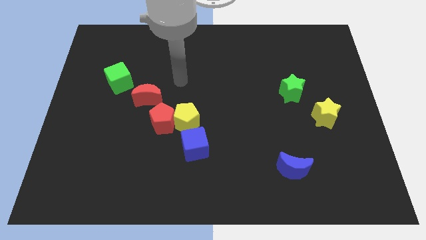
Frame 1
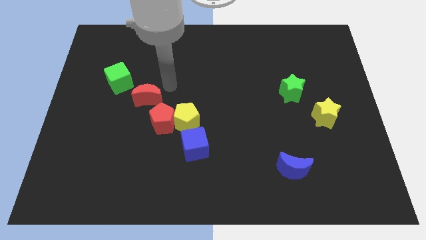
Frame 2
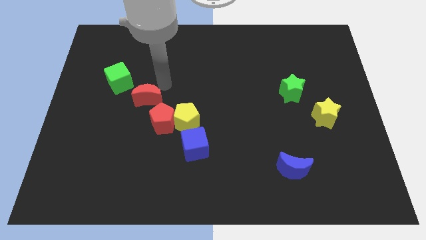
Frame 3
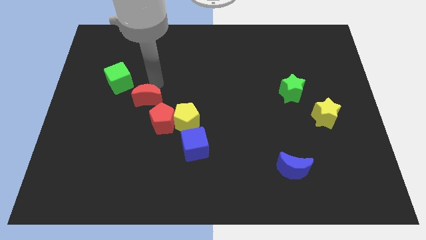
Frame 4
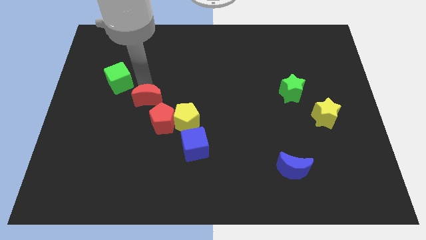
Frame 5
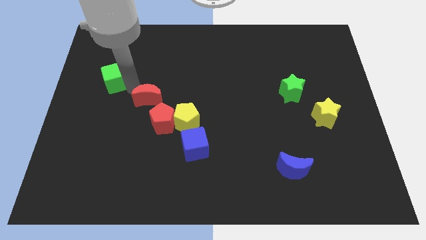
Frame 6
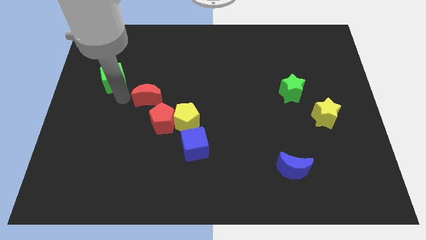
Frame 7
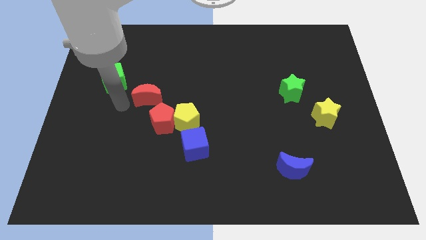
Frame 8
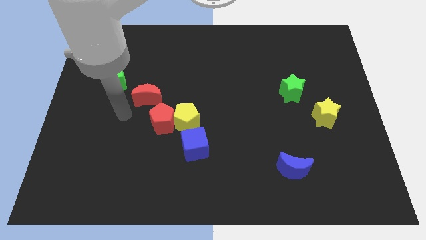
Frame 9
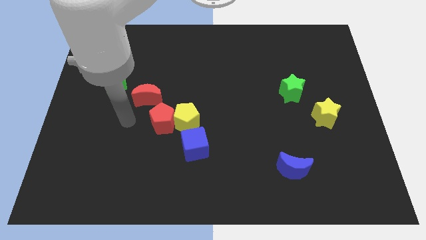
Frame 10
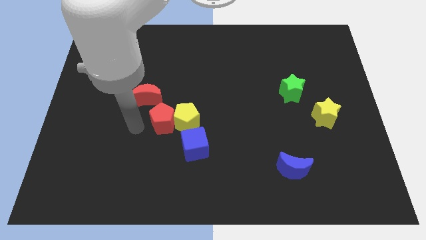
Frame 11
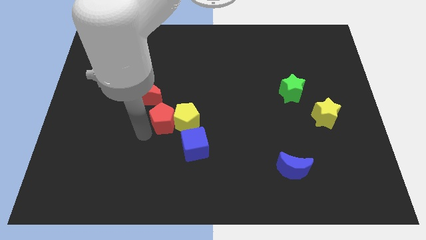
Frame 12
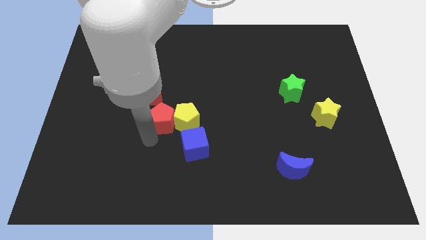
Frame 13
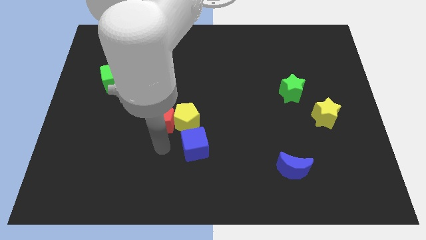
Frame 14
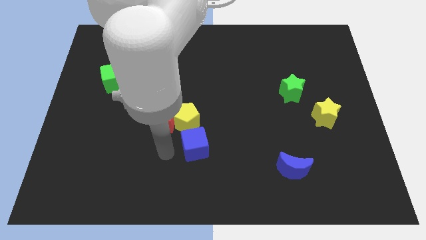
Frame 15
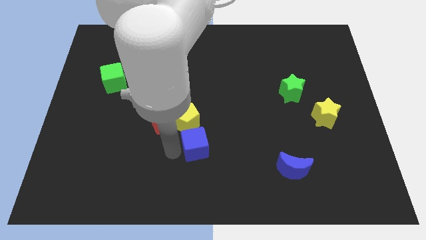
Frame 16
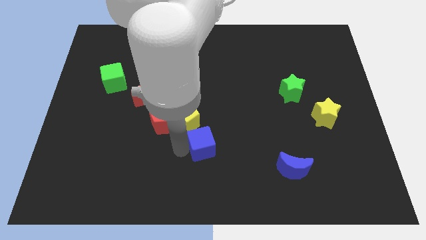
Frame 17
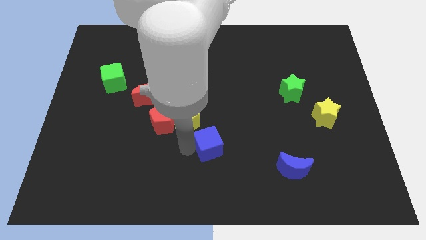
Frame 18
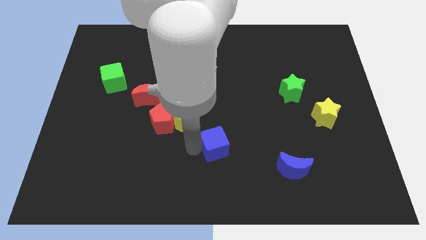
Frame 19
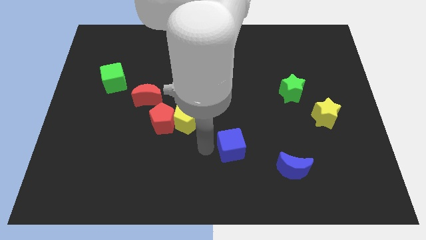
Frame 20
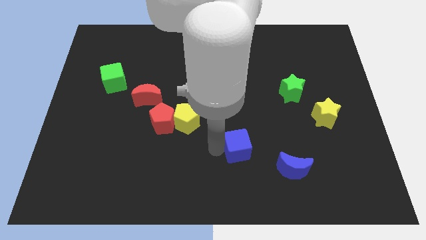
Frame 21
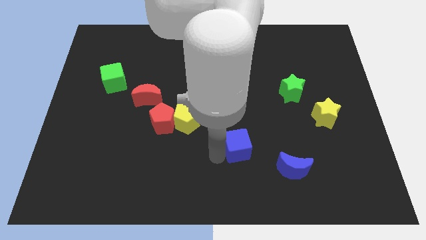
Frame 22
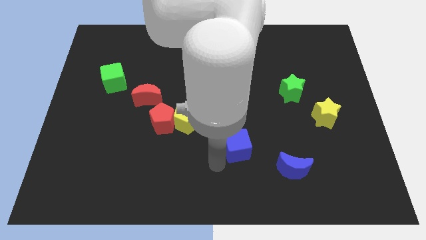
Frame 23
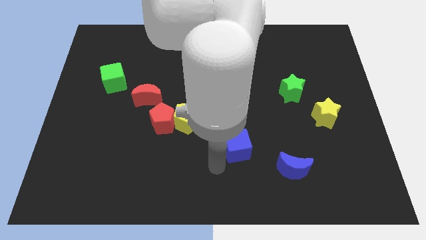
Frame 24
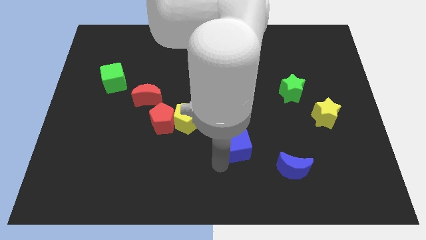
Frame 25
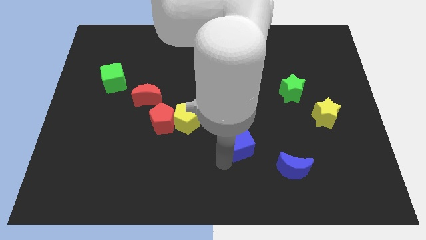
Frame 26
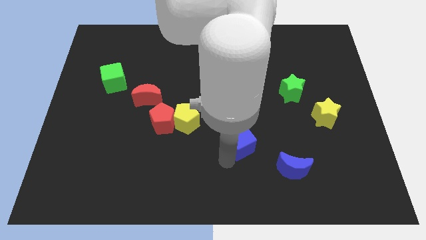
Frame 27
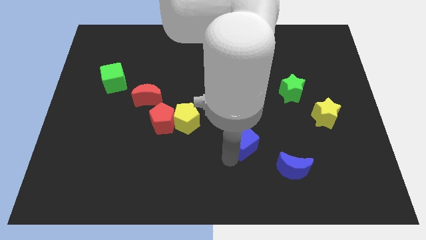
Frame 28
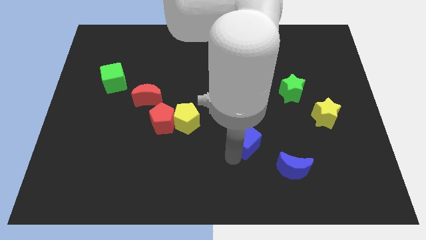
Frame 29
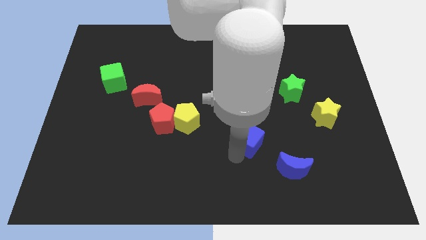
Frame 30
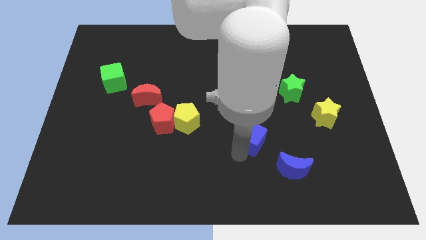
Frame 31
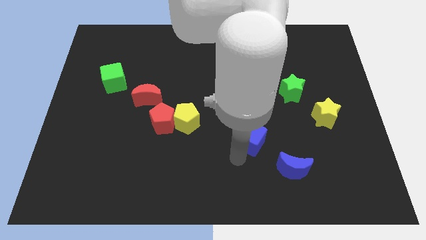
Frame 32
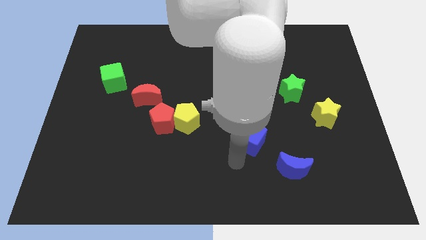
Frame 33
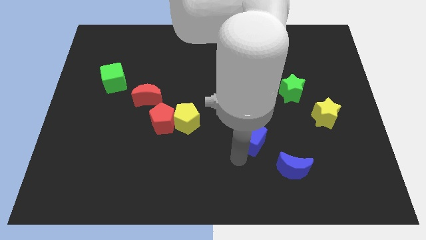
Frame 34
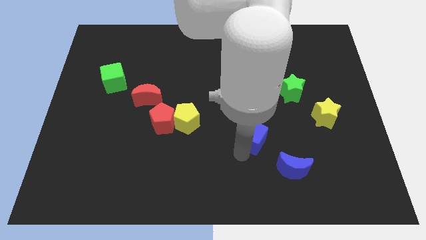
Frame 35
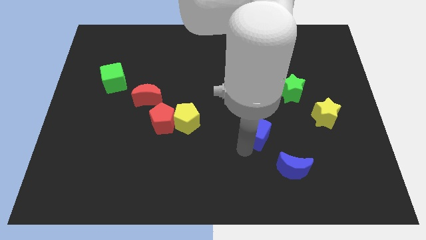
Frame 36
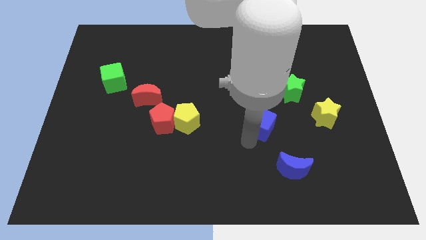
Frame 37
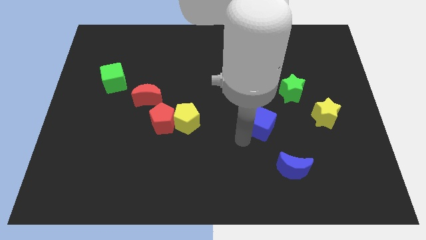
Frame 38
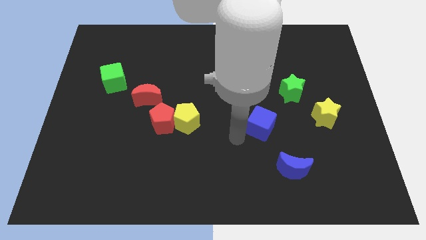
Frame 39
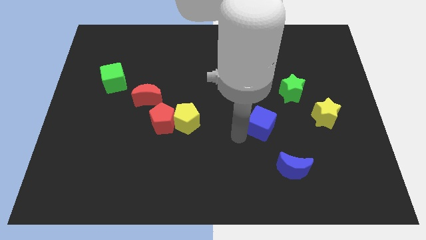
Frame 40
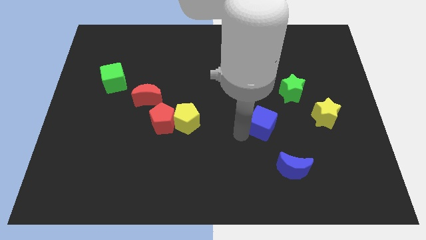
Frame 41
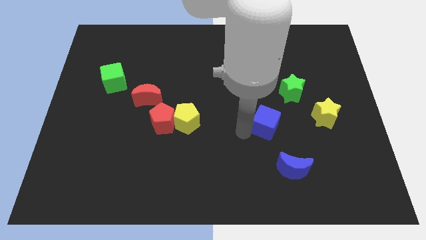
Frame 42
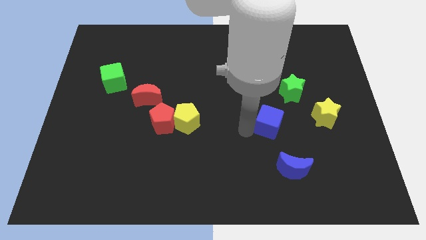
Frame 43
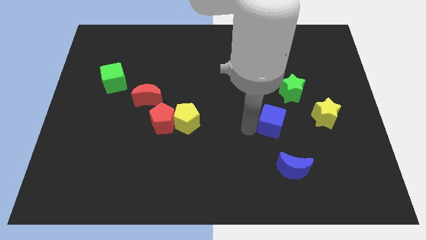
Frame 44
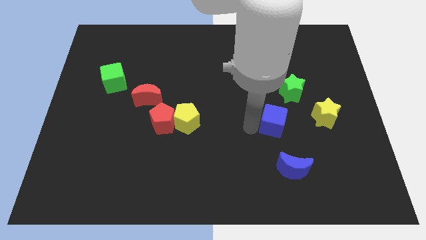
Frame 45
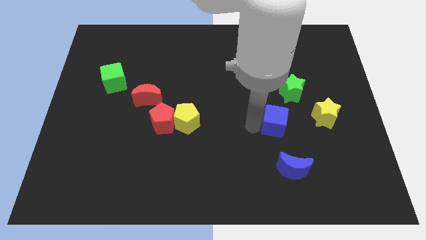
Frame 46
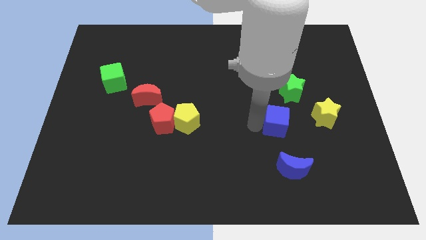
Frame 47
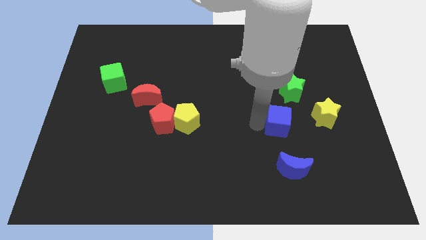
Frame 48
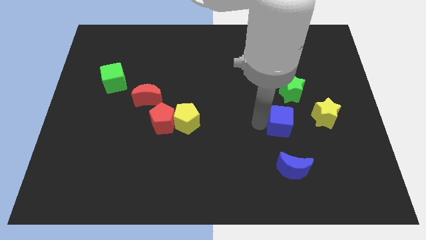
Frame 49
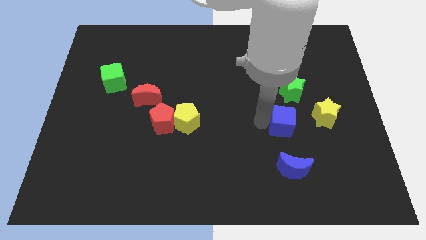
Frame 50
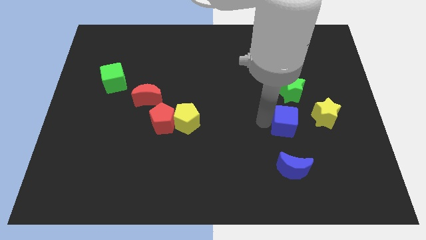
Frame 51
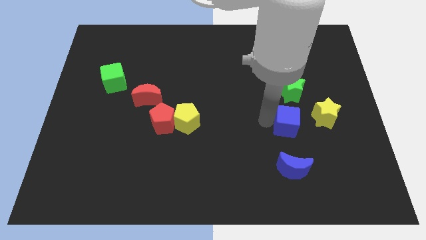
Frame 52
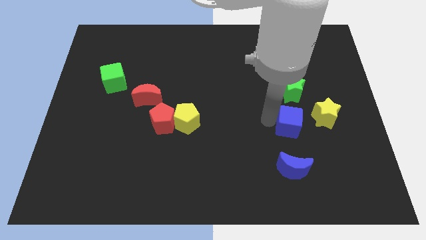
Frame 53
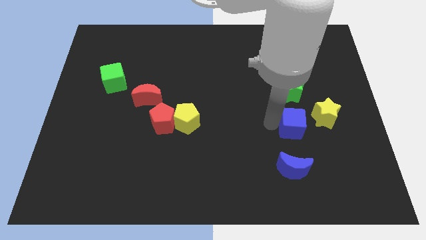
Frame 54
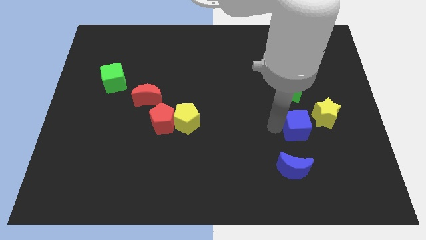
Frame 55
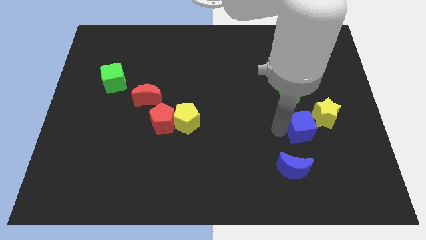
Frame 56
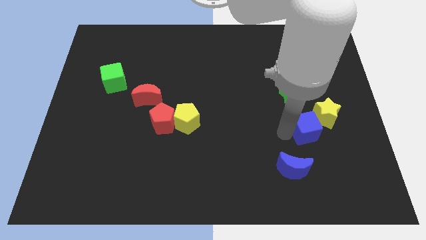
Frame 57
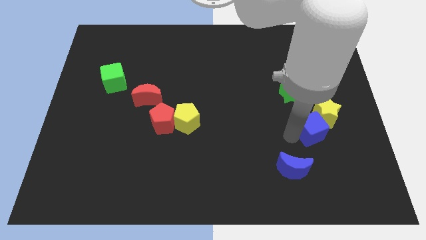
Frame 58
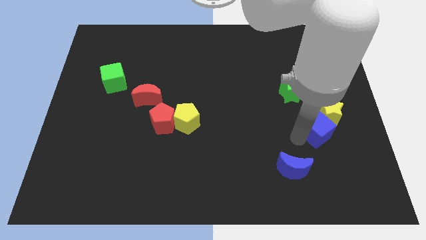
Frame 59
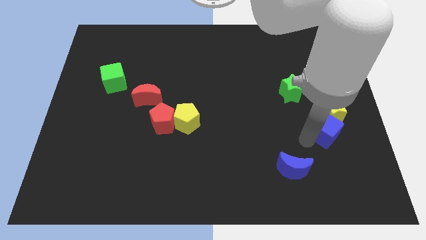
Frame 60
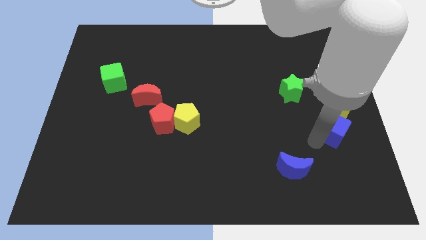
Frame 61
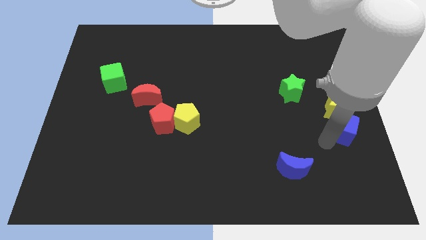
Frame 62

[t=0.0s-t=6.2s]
put the blue cube to the center right

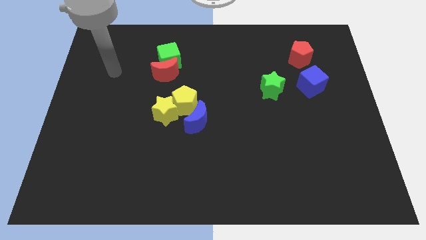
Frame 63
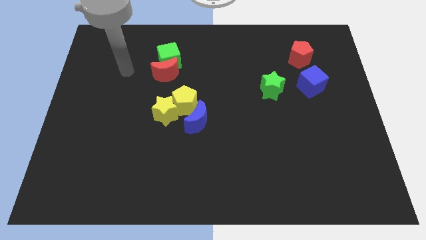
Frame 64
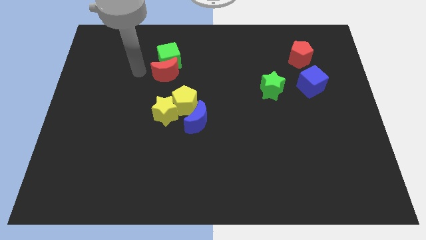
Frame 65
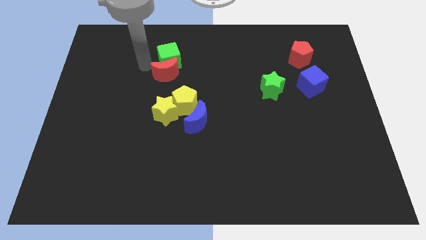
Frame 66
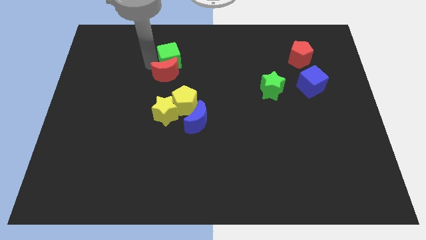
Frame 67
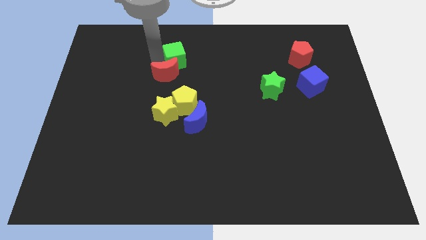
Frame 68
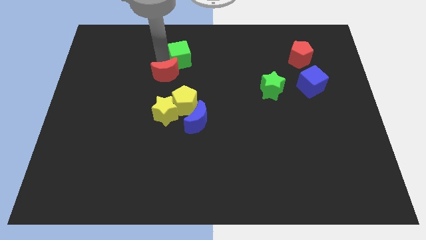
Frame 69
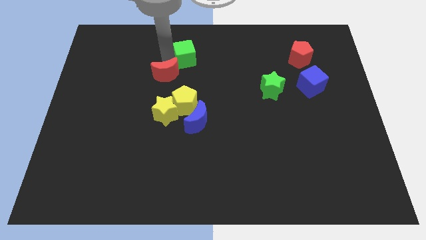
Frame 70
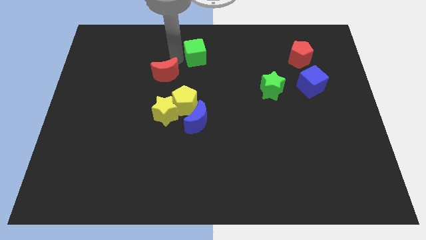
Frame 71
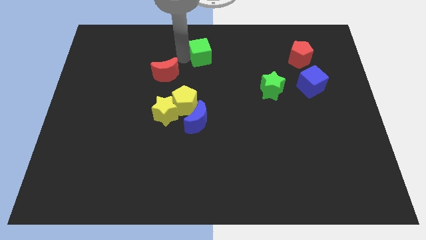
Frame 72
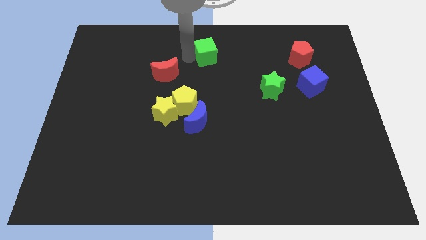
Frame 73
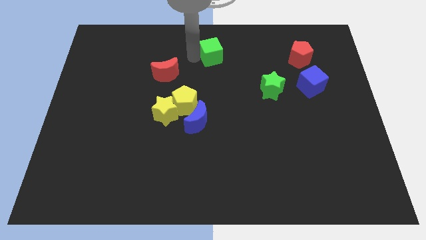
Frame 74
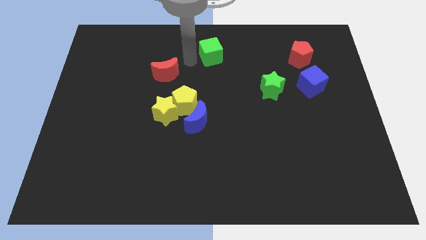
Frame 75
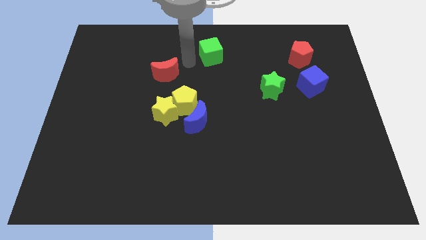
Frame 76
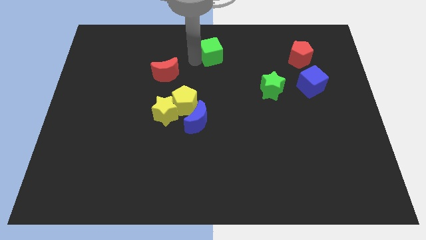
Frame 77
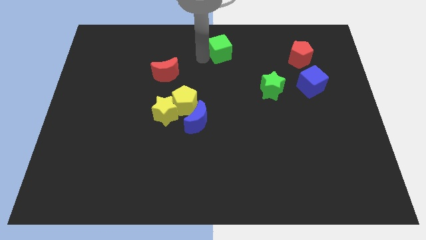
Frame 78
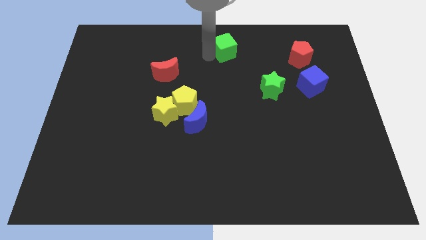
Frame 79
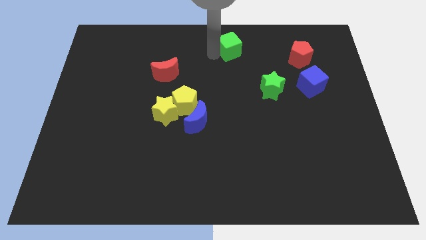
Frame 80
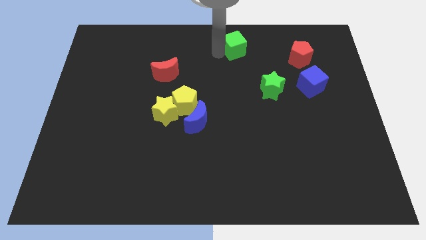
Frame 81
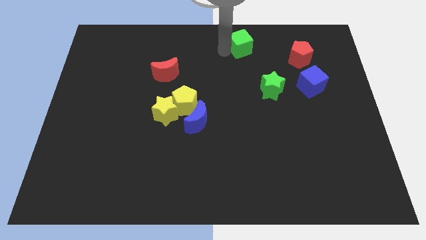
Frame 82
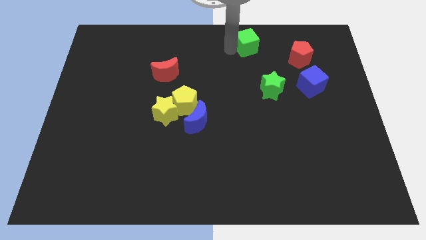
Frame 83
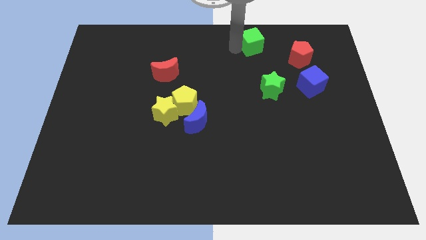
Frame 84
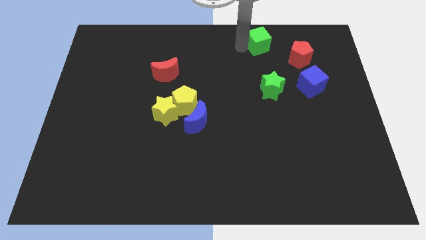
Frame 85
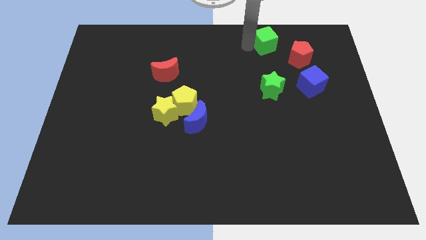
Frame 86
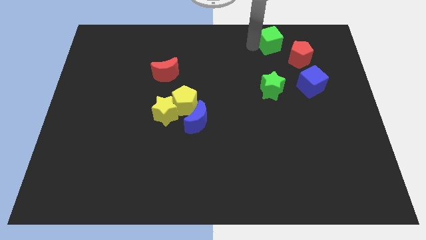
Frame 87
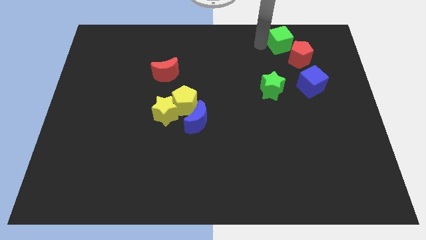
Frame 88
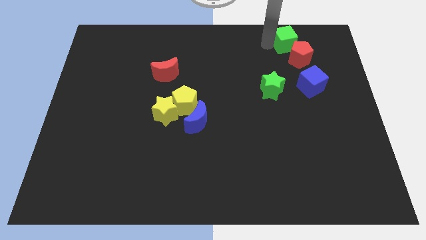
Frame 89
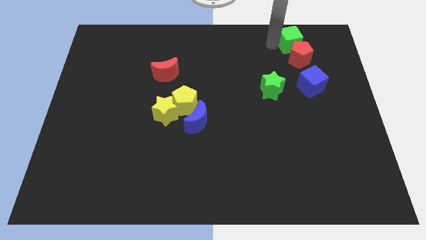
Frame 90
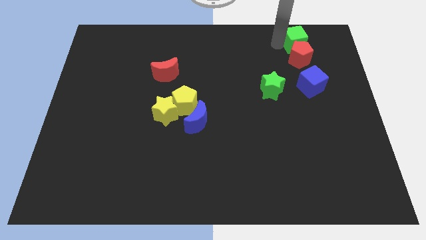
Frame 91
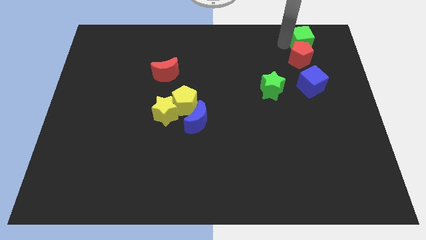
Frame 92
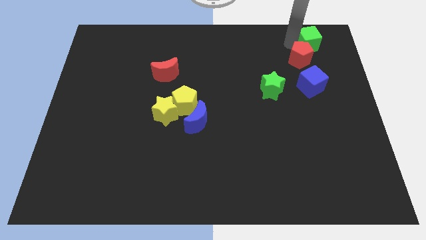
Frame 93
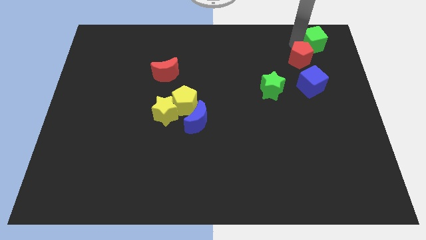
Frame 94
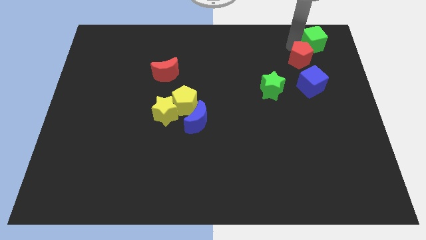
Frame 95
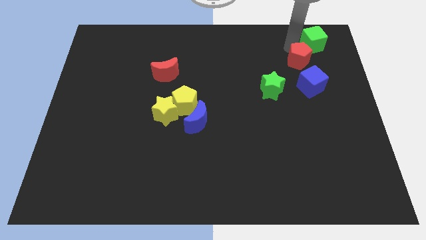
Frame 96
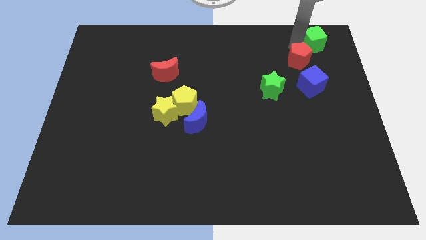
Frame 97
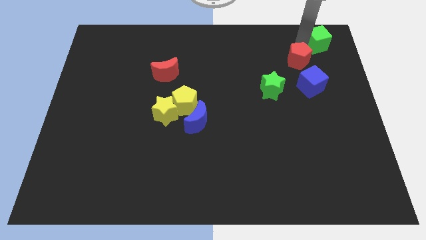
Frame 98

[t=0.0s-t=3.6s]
move the green cube to the top right corner
